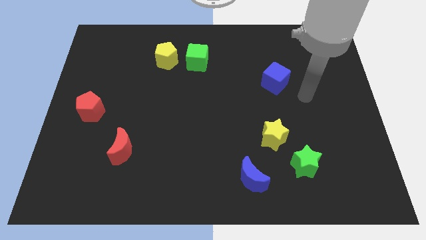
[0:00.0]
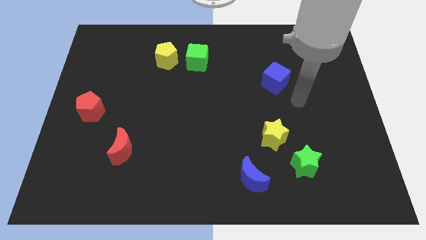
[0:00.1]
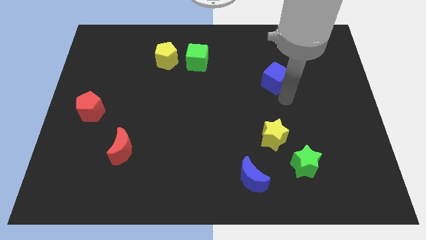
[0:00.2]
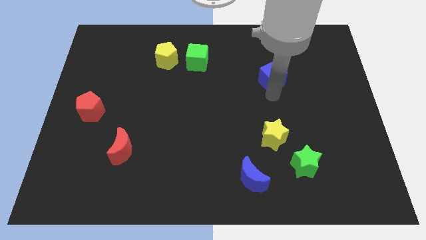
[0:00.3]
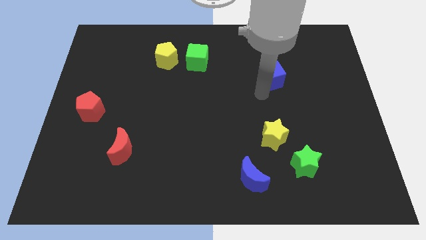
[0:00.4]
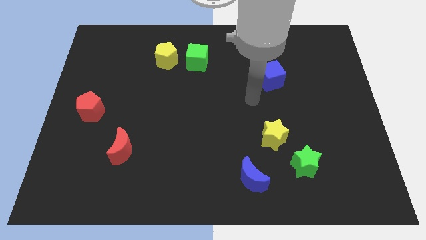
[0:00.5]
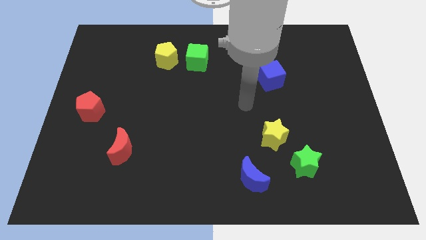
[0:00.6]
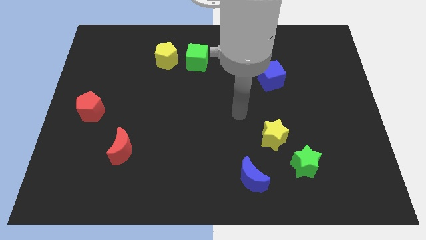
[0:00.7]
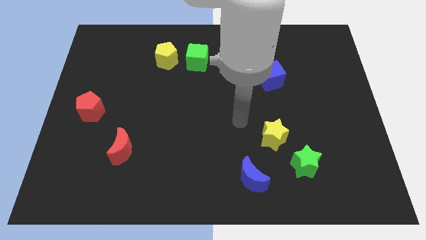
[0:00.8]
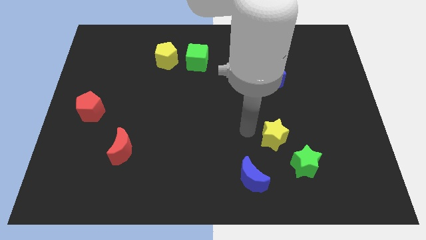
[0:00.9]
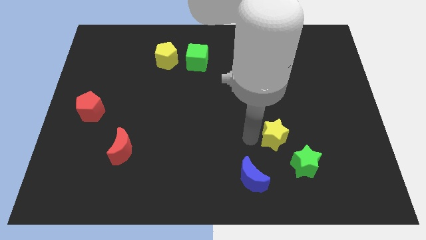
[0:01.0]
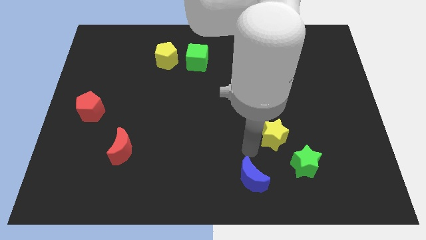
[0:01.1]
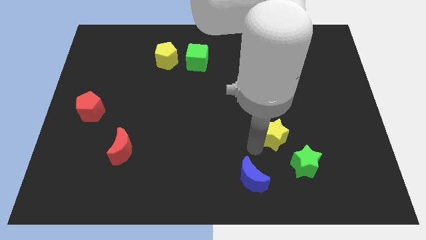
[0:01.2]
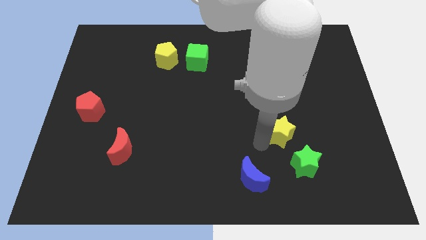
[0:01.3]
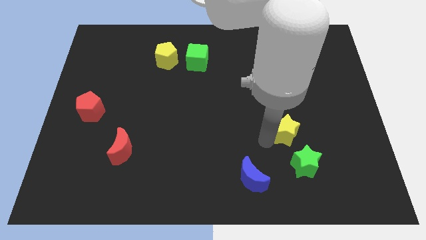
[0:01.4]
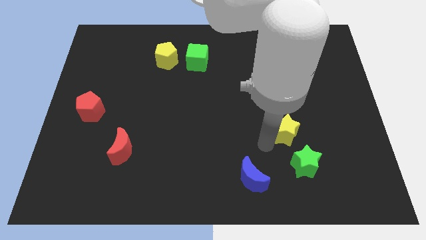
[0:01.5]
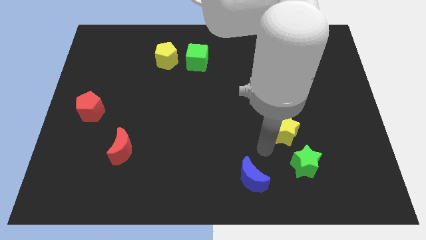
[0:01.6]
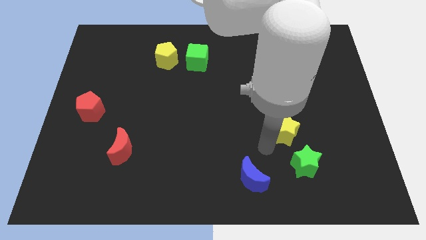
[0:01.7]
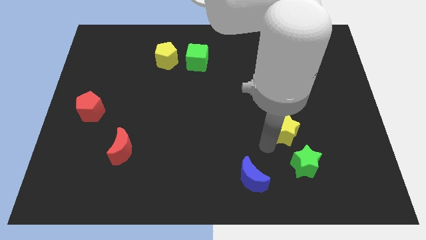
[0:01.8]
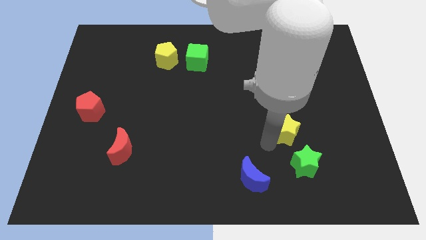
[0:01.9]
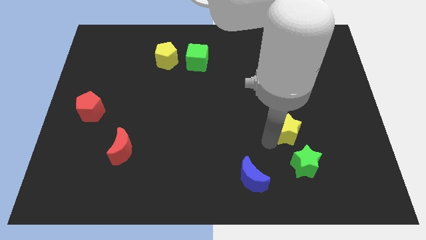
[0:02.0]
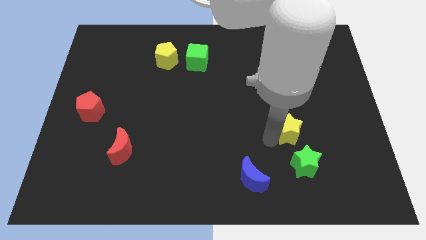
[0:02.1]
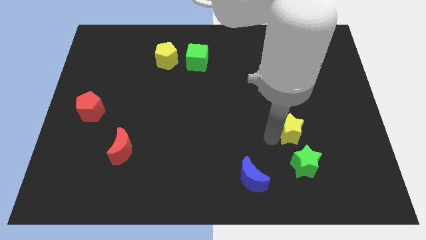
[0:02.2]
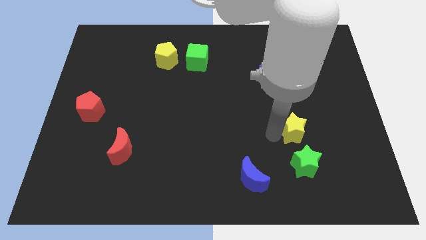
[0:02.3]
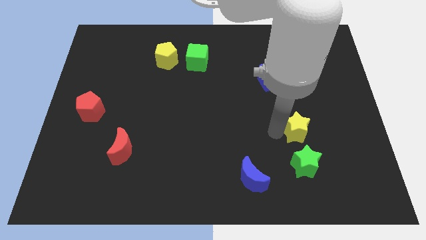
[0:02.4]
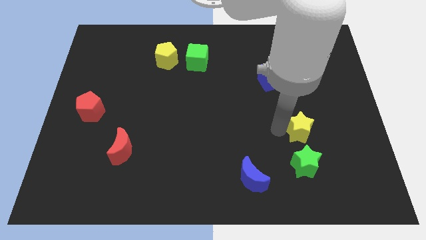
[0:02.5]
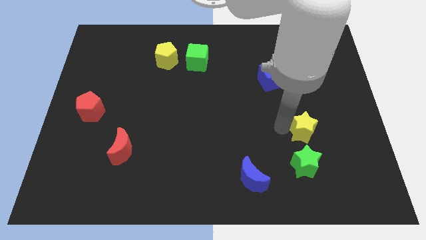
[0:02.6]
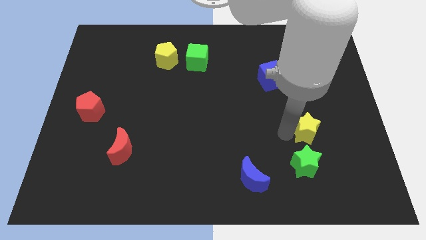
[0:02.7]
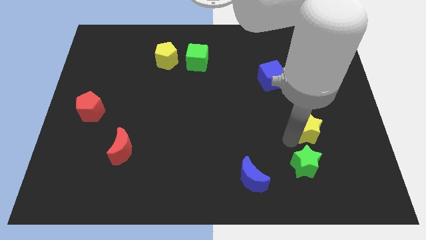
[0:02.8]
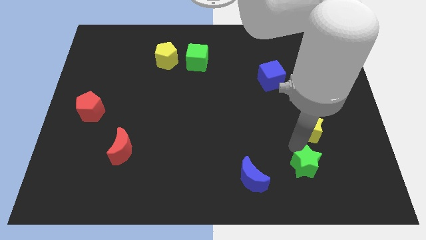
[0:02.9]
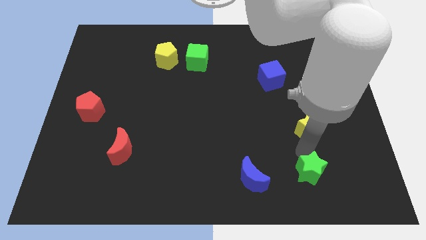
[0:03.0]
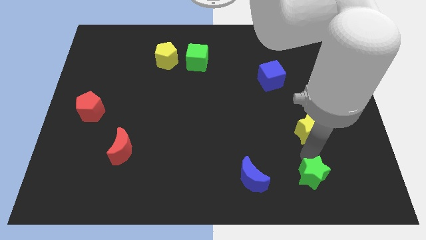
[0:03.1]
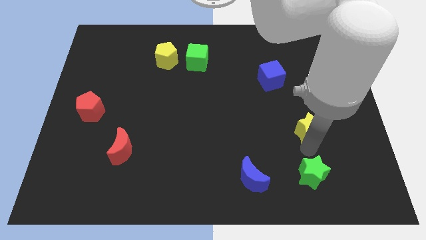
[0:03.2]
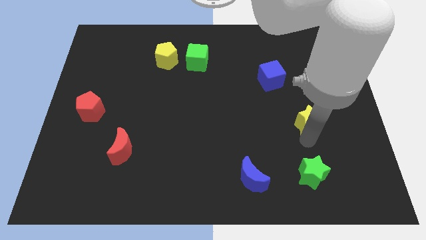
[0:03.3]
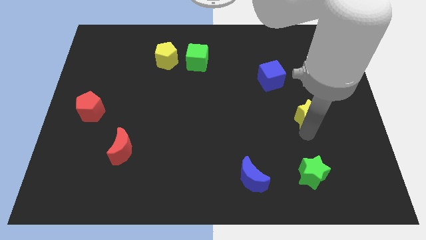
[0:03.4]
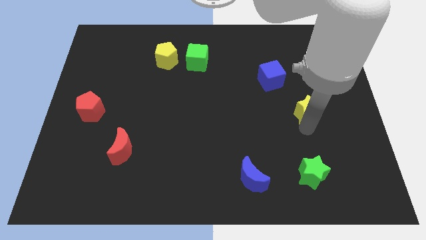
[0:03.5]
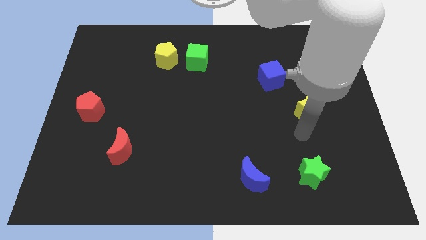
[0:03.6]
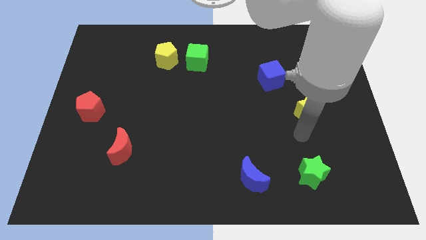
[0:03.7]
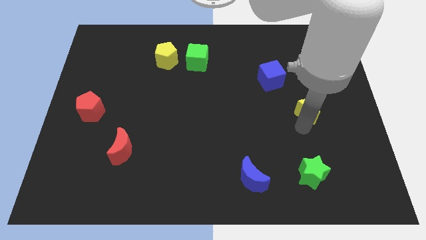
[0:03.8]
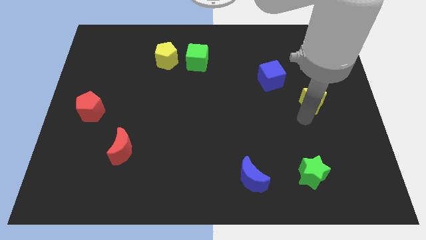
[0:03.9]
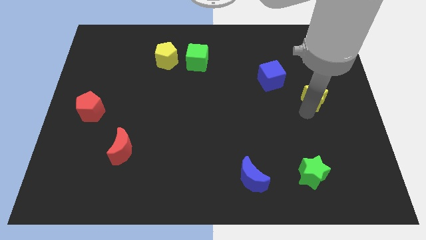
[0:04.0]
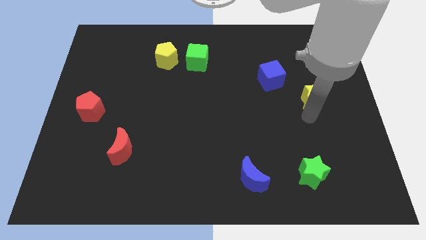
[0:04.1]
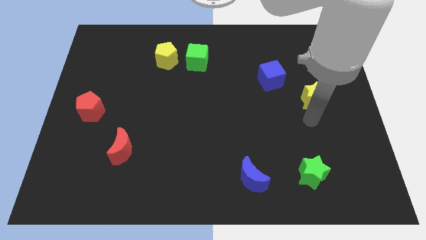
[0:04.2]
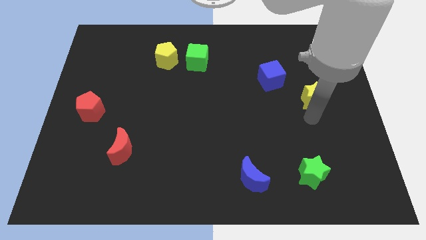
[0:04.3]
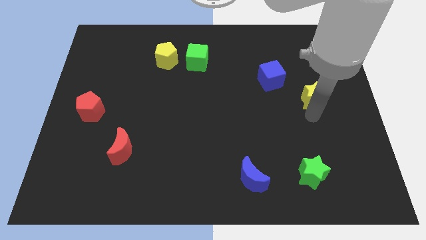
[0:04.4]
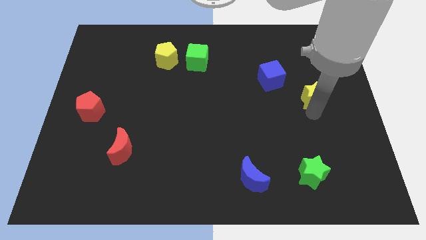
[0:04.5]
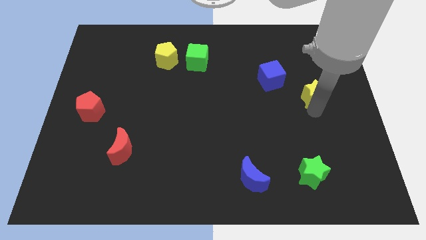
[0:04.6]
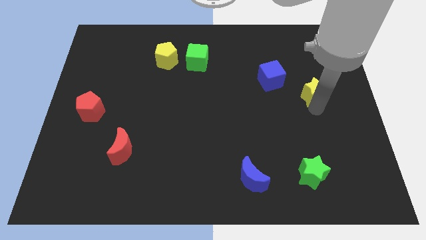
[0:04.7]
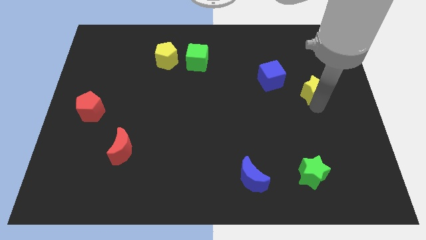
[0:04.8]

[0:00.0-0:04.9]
move the yellow star right of the blue cube

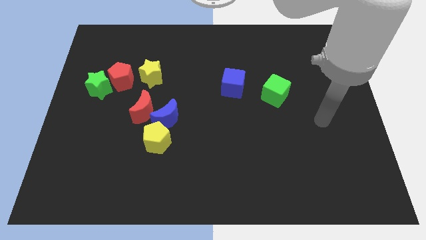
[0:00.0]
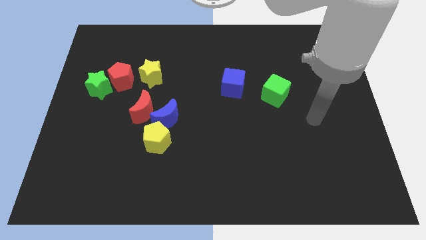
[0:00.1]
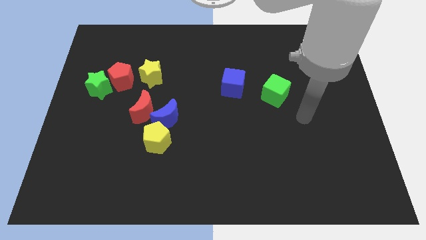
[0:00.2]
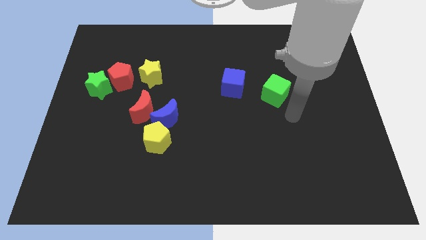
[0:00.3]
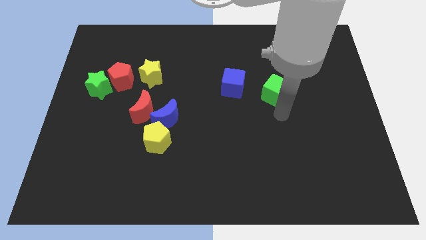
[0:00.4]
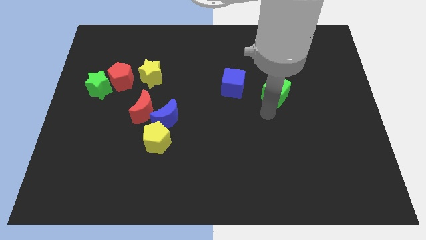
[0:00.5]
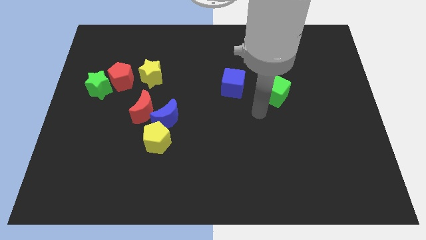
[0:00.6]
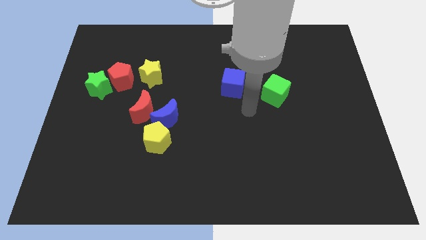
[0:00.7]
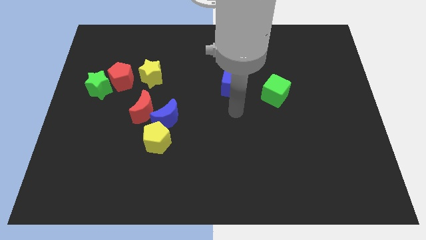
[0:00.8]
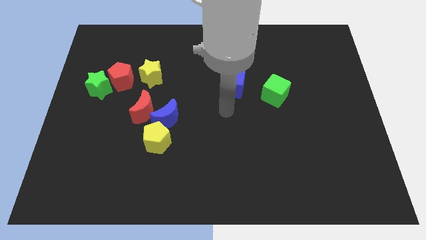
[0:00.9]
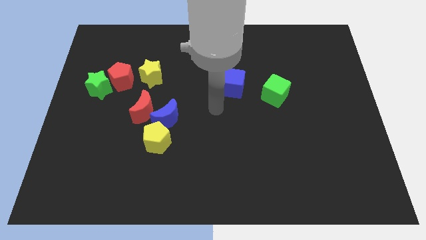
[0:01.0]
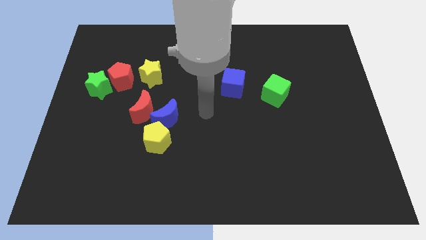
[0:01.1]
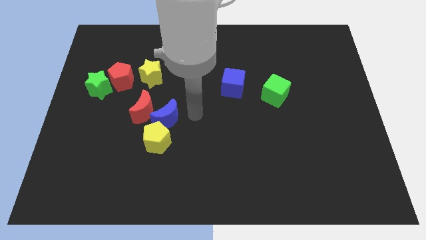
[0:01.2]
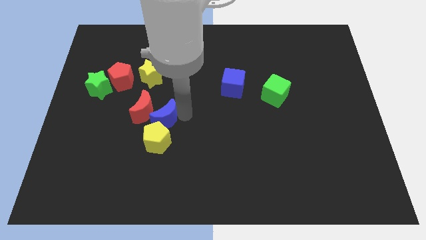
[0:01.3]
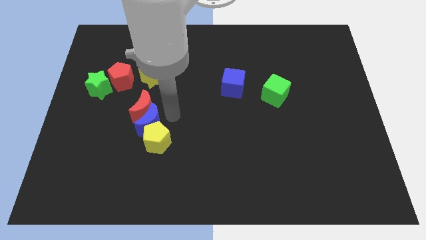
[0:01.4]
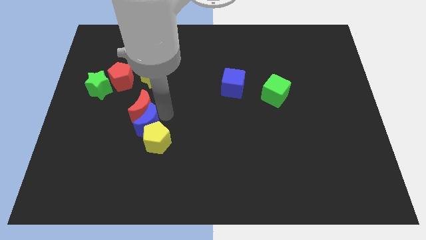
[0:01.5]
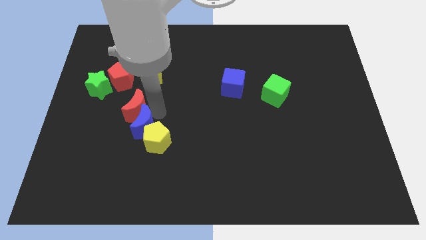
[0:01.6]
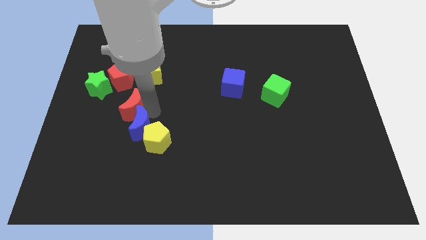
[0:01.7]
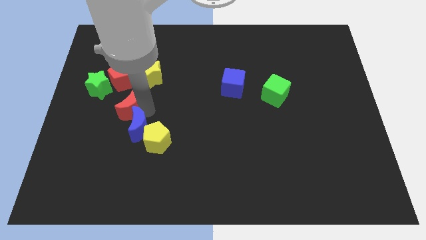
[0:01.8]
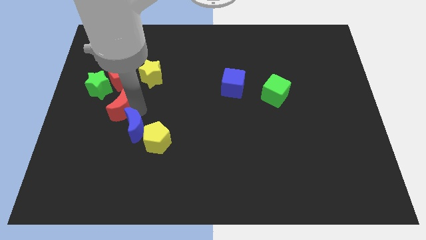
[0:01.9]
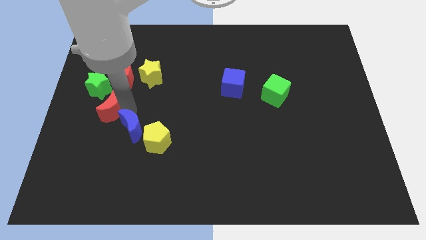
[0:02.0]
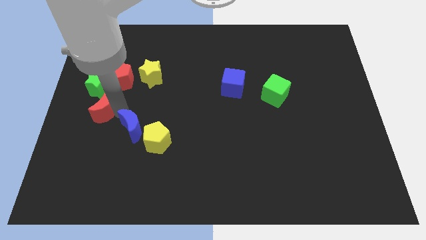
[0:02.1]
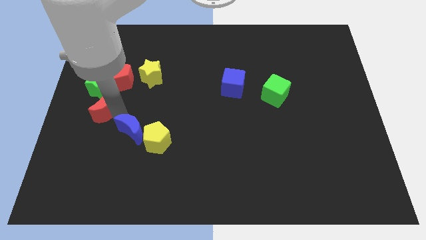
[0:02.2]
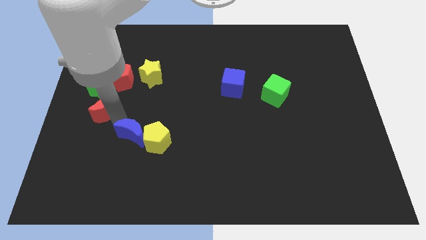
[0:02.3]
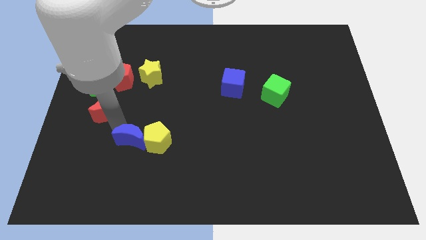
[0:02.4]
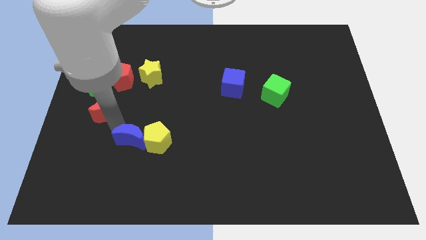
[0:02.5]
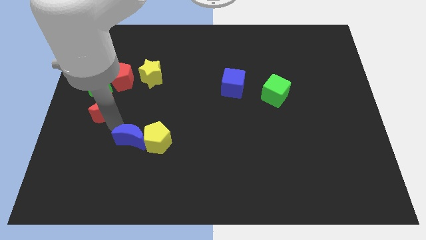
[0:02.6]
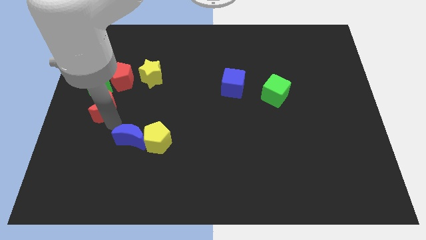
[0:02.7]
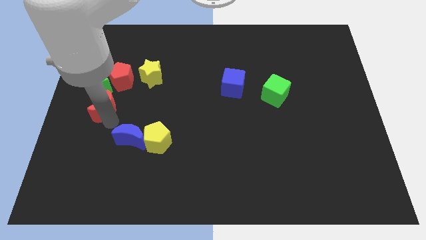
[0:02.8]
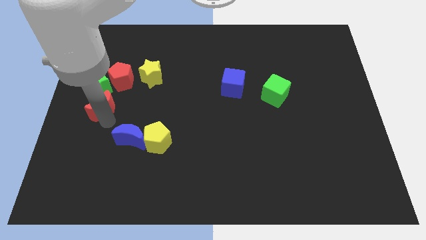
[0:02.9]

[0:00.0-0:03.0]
slide the red moon to the bottom left of the red pentagon
